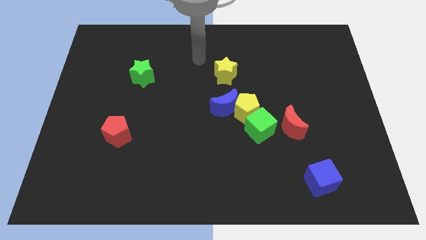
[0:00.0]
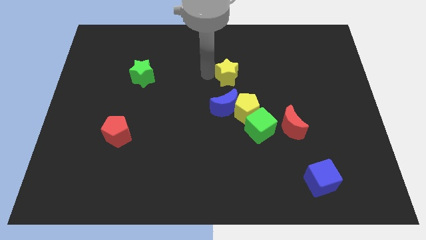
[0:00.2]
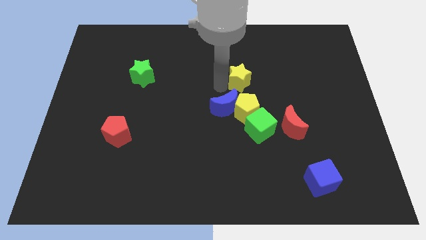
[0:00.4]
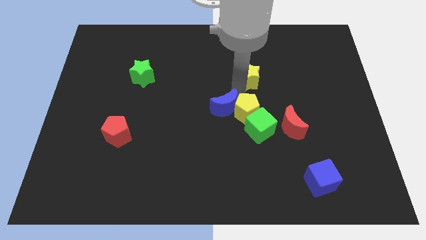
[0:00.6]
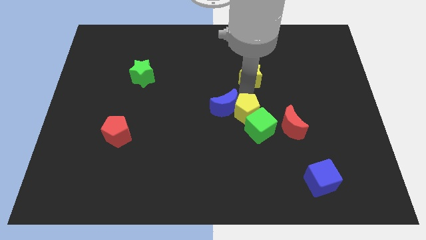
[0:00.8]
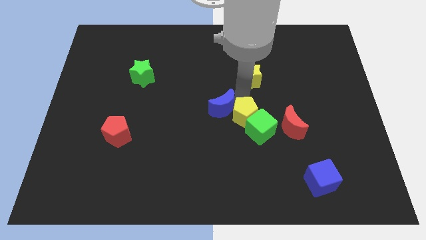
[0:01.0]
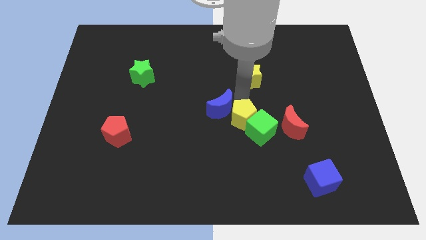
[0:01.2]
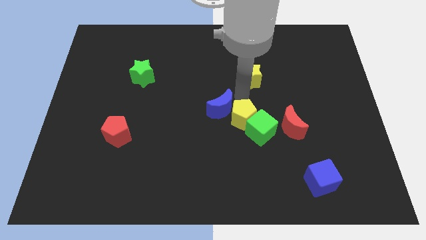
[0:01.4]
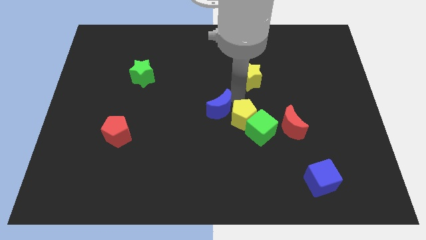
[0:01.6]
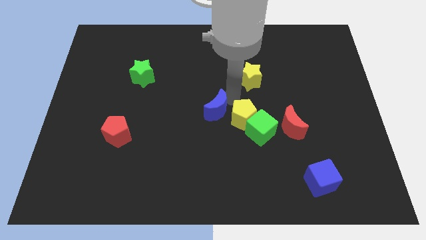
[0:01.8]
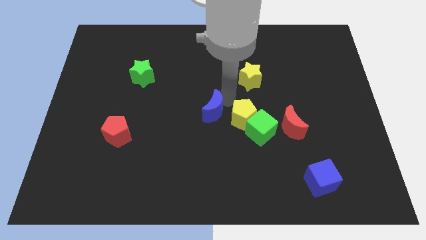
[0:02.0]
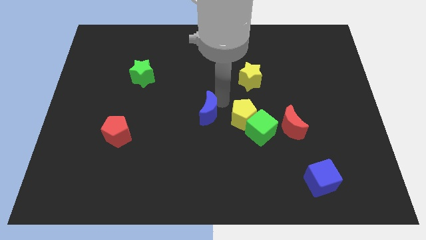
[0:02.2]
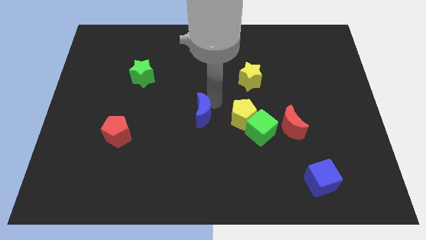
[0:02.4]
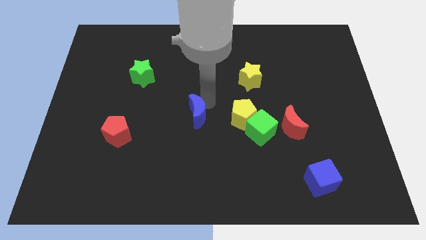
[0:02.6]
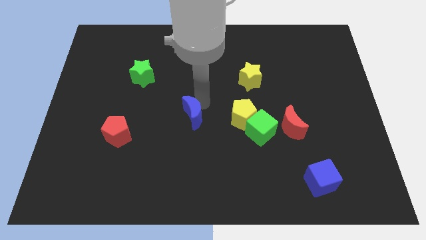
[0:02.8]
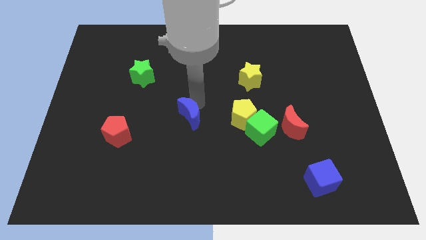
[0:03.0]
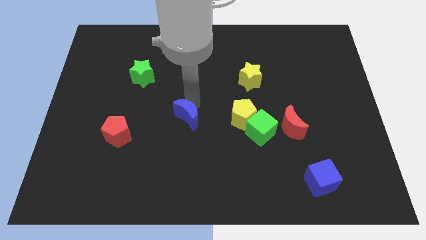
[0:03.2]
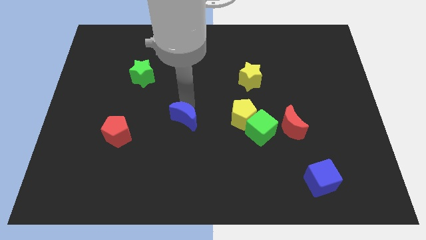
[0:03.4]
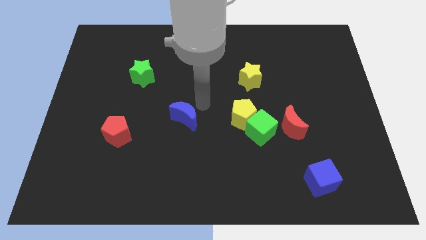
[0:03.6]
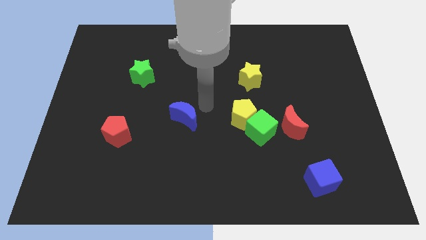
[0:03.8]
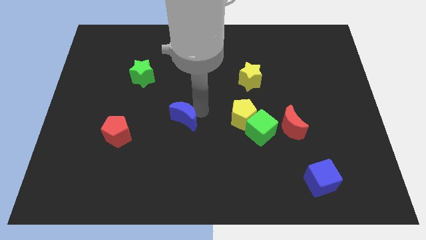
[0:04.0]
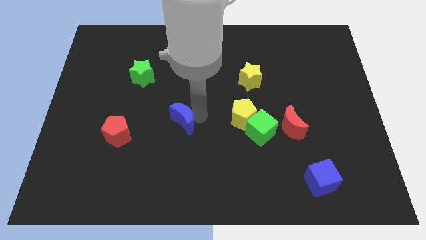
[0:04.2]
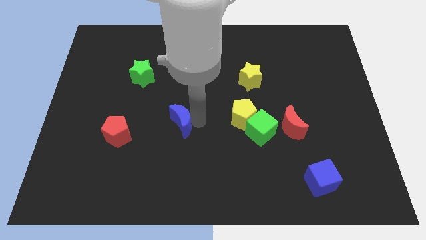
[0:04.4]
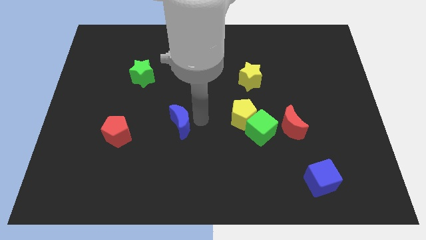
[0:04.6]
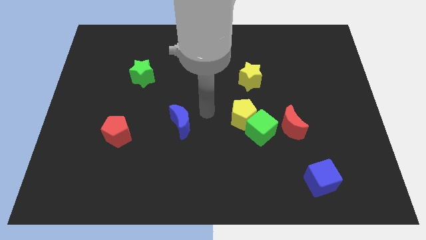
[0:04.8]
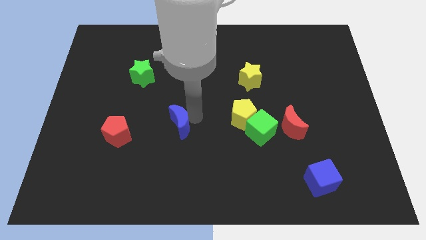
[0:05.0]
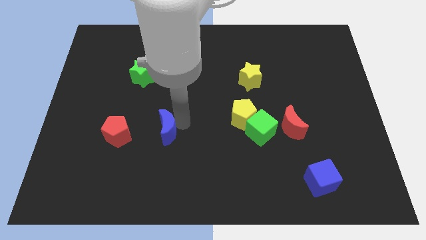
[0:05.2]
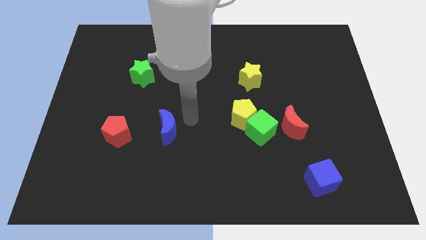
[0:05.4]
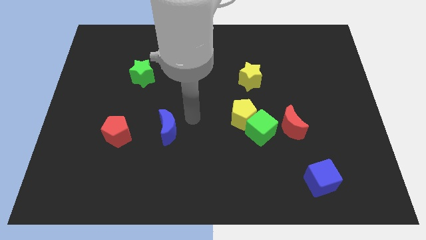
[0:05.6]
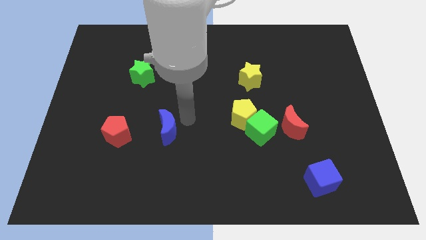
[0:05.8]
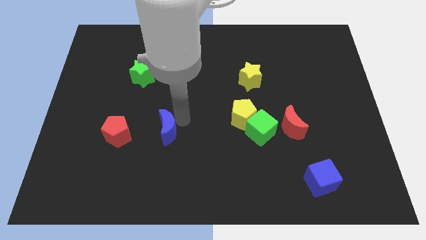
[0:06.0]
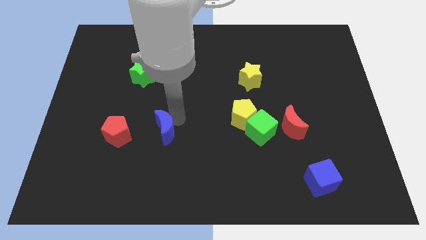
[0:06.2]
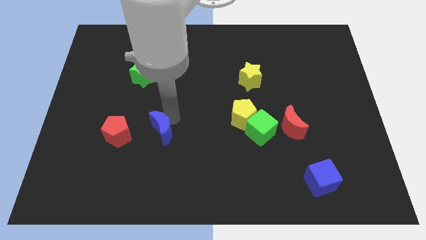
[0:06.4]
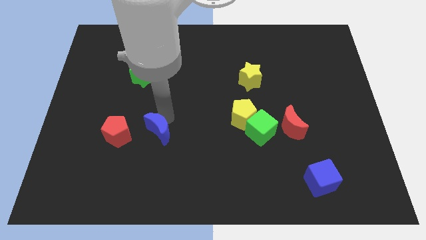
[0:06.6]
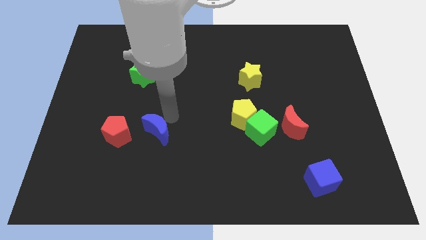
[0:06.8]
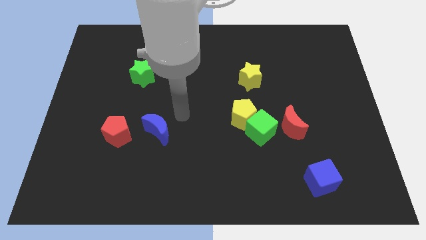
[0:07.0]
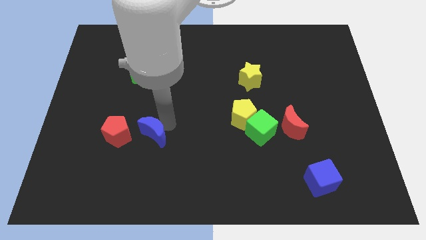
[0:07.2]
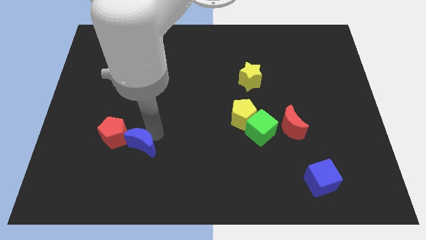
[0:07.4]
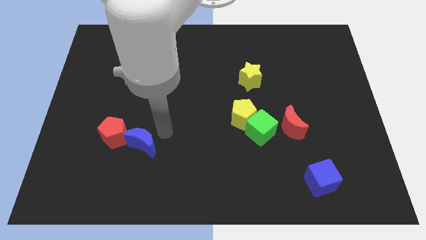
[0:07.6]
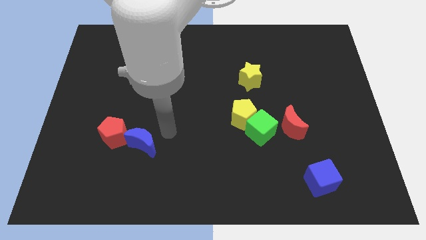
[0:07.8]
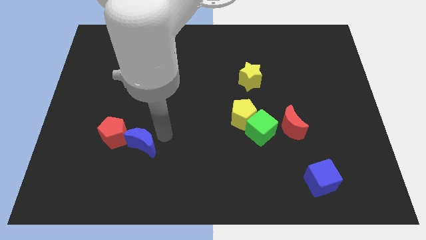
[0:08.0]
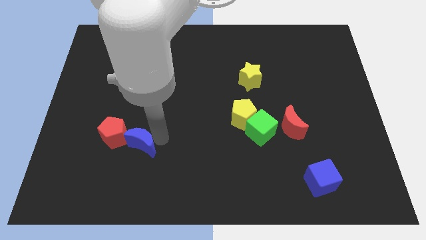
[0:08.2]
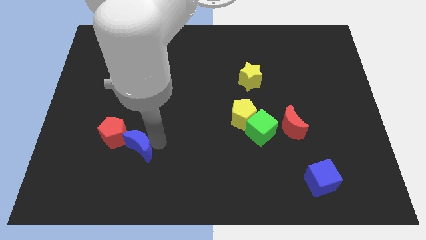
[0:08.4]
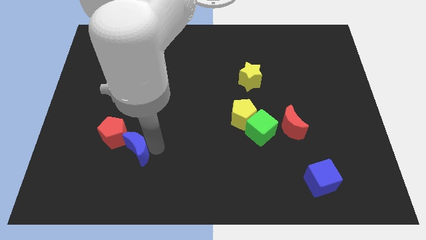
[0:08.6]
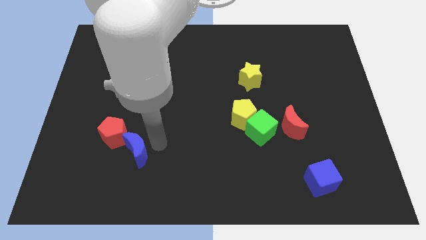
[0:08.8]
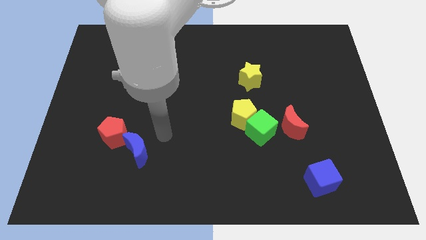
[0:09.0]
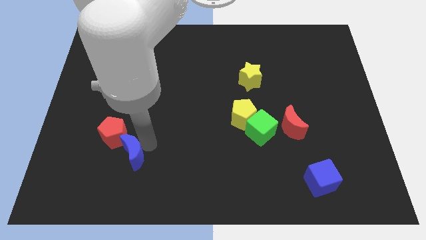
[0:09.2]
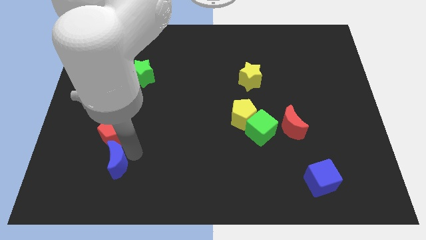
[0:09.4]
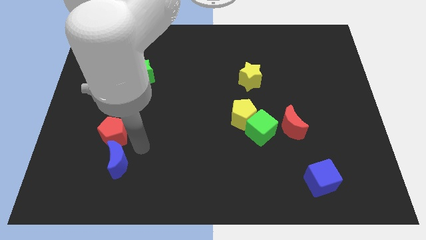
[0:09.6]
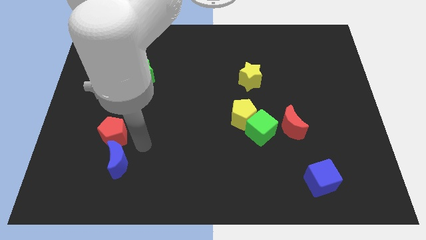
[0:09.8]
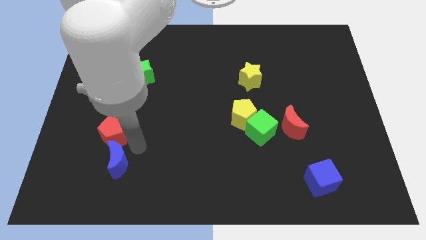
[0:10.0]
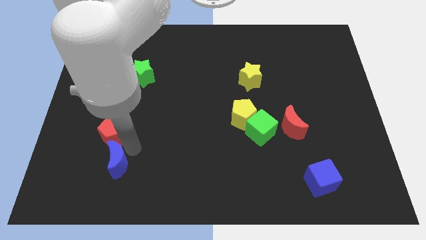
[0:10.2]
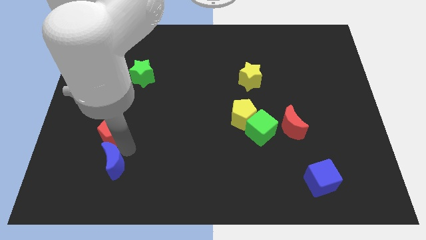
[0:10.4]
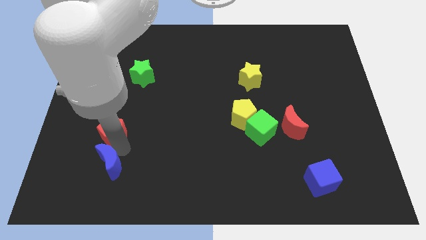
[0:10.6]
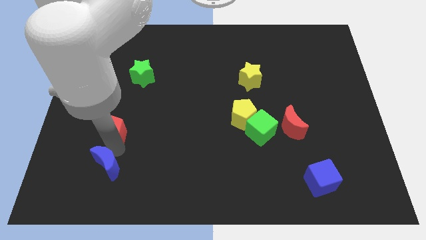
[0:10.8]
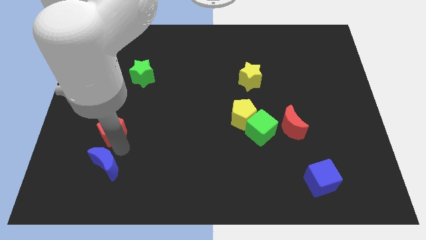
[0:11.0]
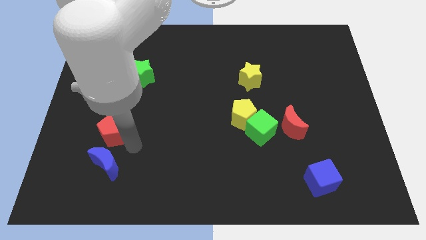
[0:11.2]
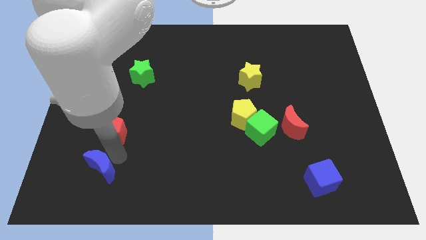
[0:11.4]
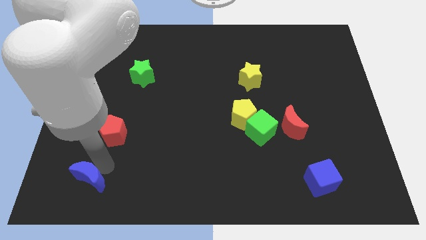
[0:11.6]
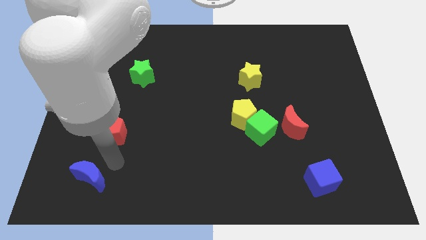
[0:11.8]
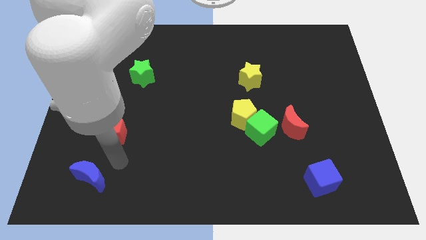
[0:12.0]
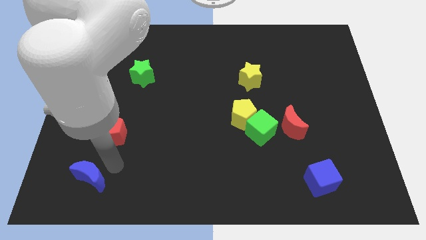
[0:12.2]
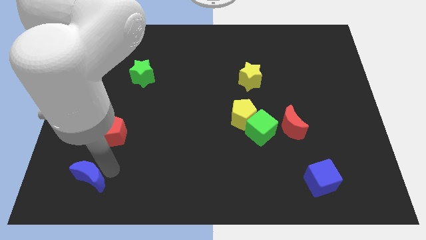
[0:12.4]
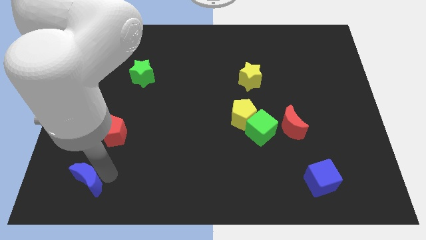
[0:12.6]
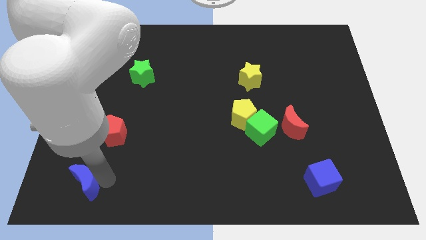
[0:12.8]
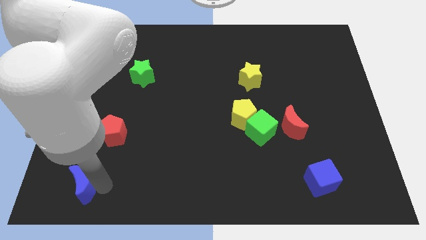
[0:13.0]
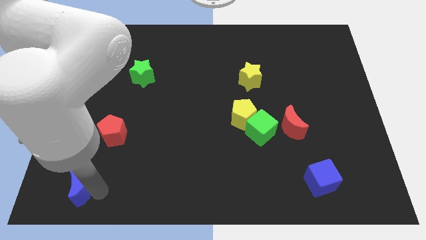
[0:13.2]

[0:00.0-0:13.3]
move the blue moon to the bottom left of the board
